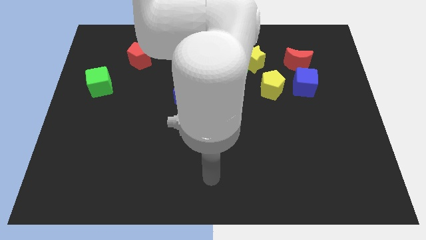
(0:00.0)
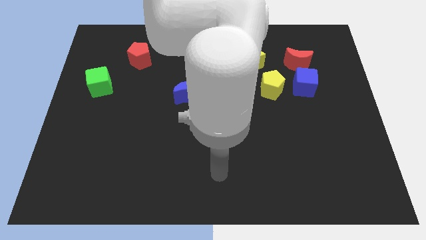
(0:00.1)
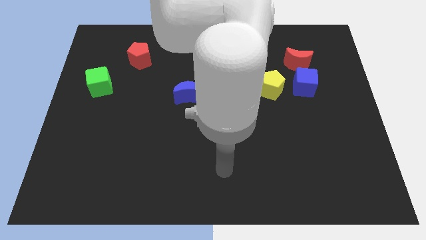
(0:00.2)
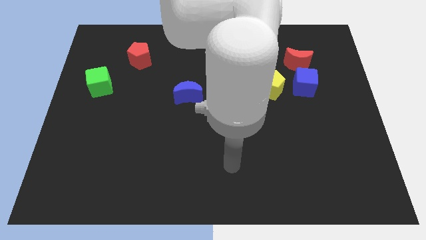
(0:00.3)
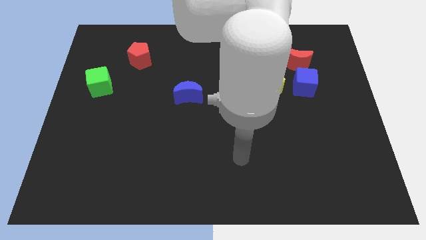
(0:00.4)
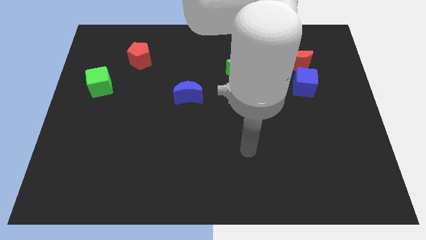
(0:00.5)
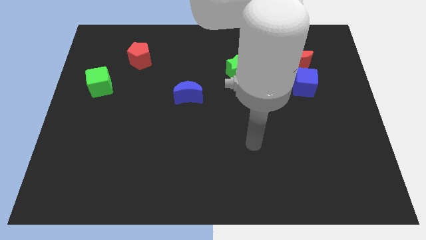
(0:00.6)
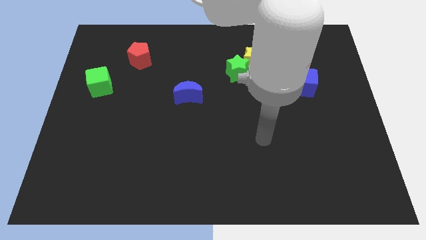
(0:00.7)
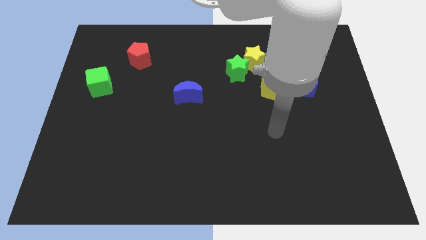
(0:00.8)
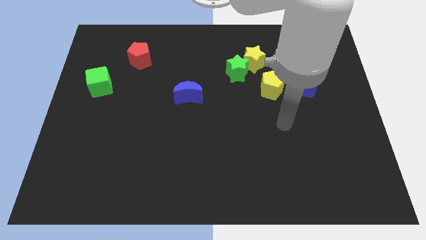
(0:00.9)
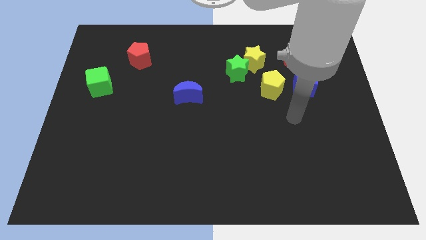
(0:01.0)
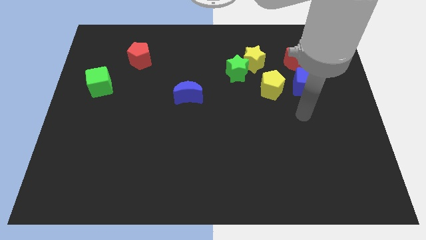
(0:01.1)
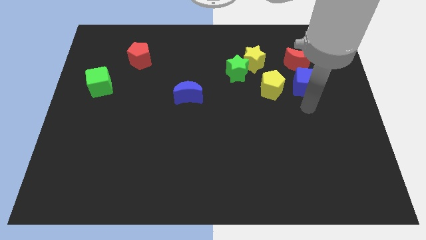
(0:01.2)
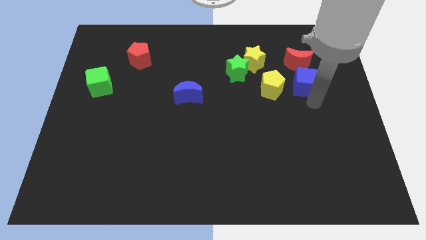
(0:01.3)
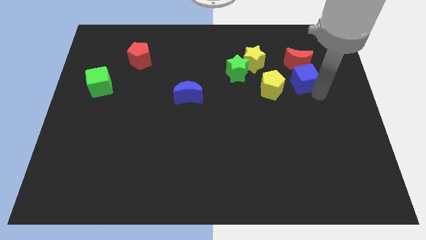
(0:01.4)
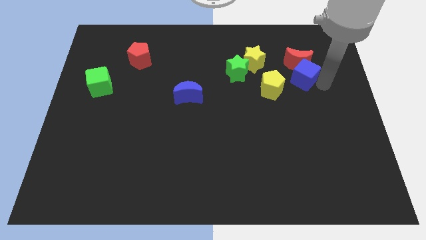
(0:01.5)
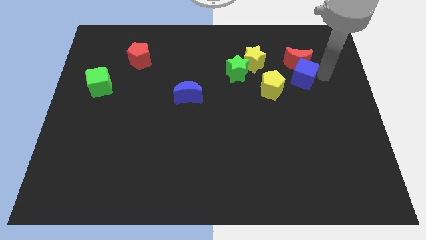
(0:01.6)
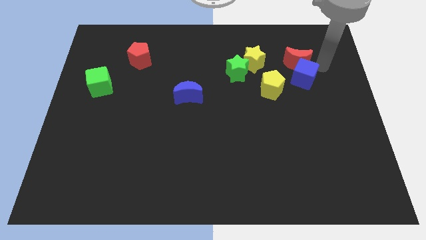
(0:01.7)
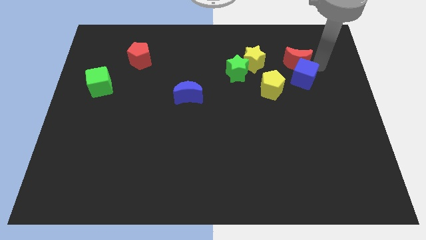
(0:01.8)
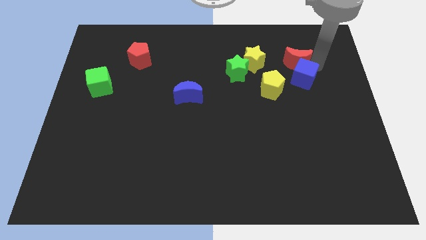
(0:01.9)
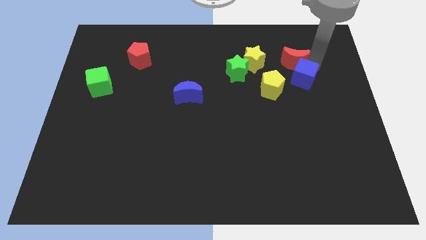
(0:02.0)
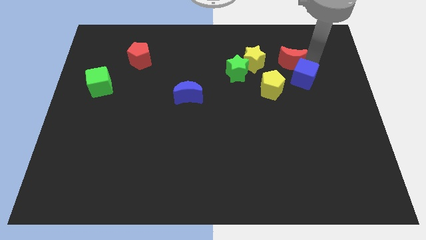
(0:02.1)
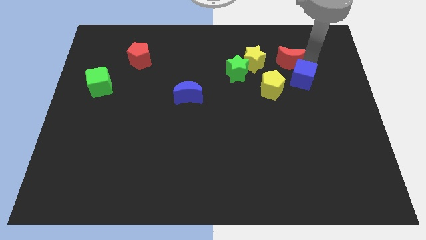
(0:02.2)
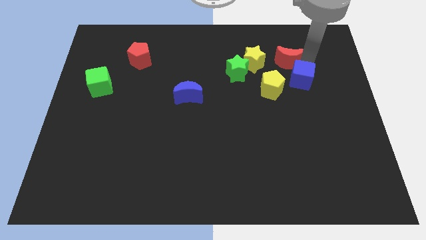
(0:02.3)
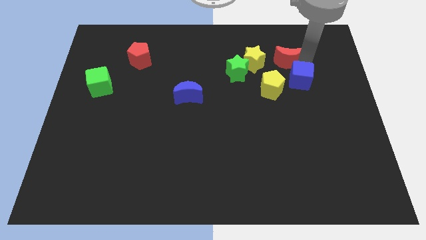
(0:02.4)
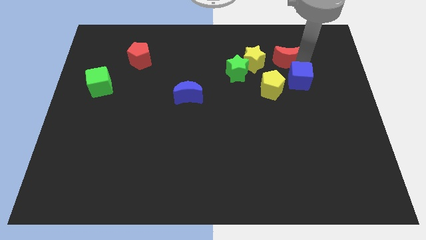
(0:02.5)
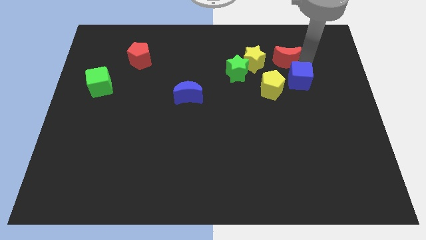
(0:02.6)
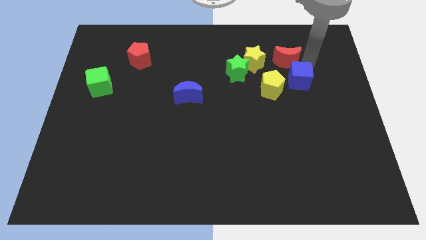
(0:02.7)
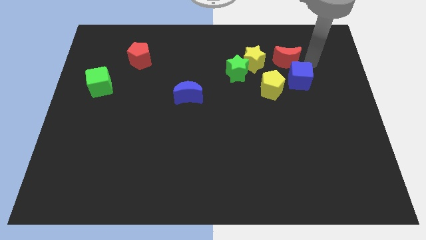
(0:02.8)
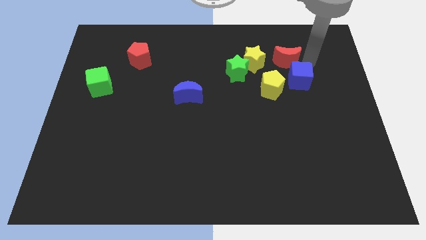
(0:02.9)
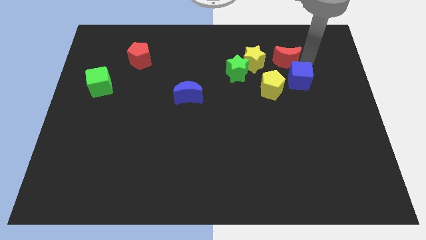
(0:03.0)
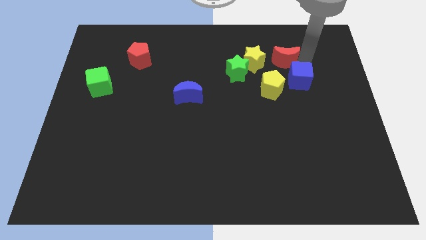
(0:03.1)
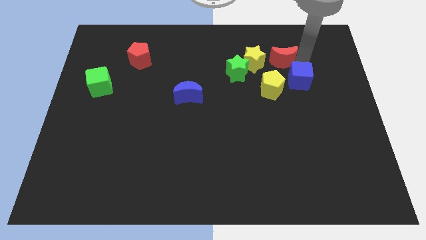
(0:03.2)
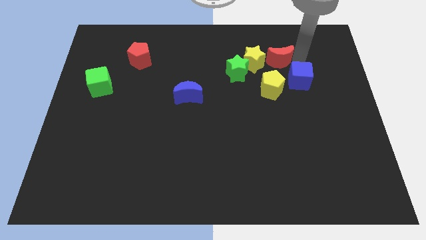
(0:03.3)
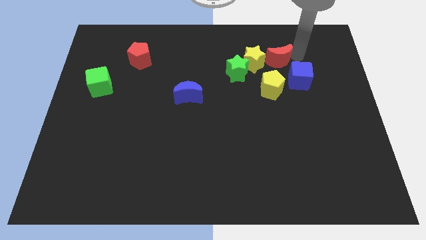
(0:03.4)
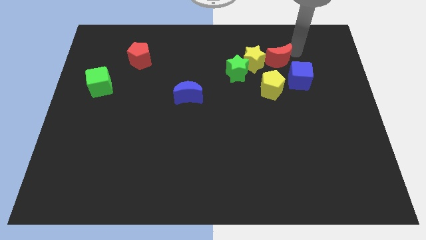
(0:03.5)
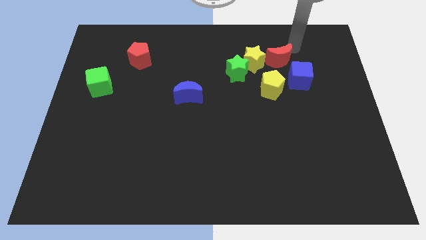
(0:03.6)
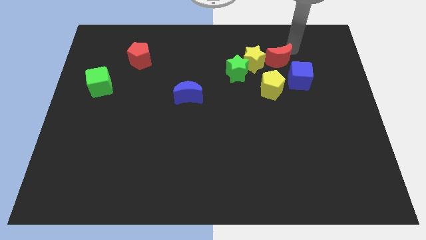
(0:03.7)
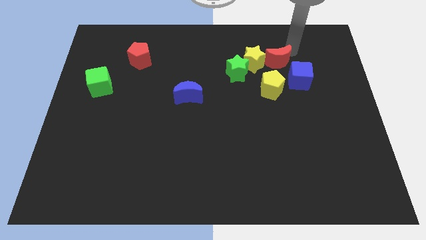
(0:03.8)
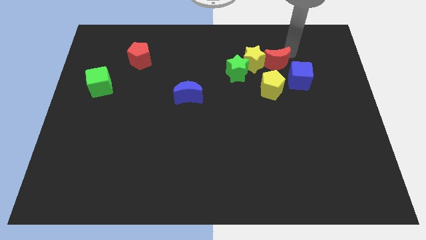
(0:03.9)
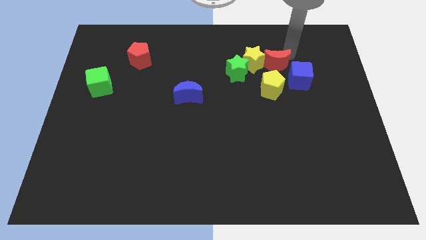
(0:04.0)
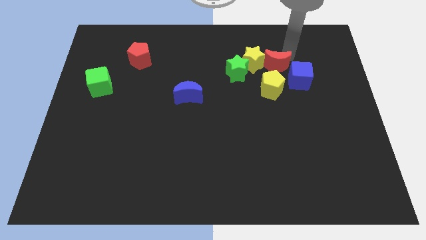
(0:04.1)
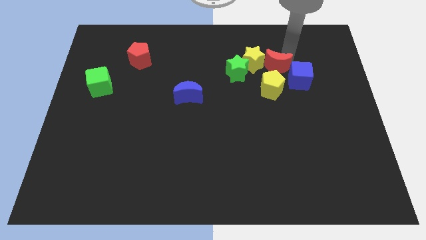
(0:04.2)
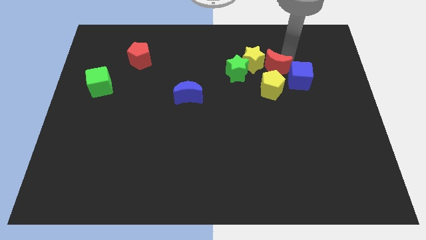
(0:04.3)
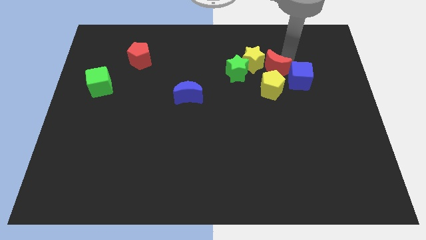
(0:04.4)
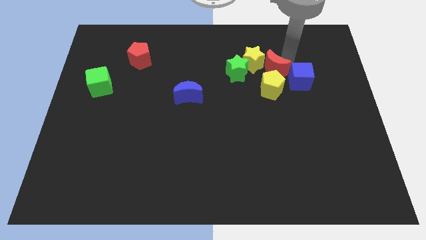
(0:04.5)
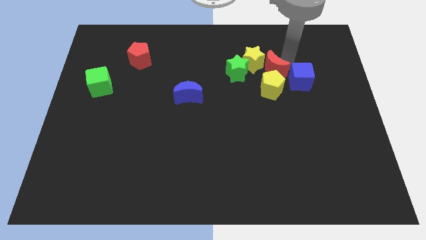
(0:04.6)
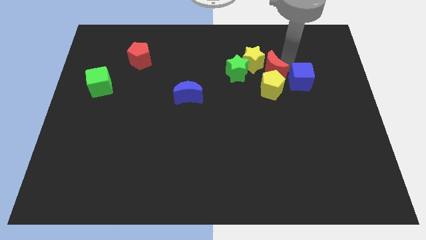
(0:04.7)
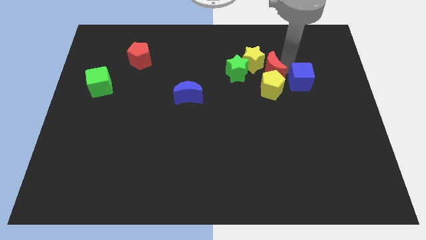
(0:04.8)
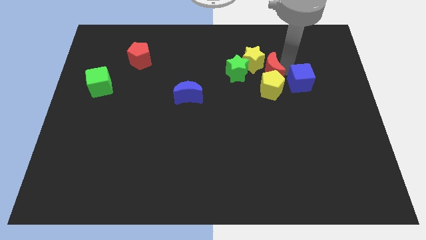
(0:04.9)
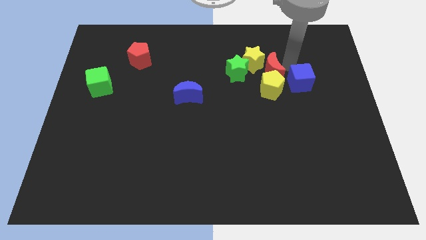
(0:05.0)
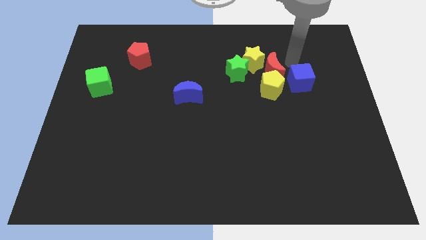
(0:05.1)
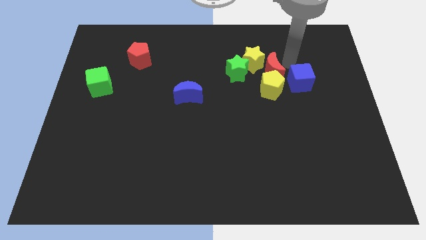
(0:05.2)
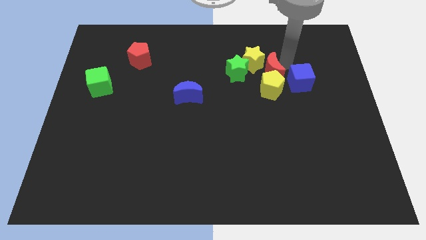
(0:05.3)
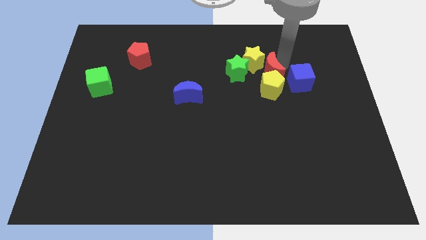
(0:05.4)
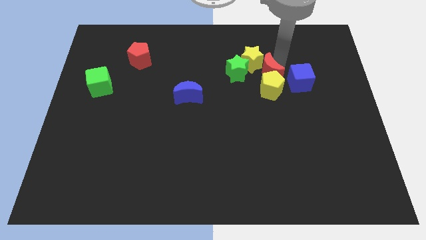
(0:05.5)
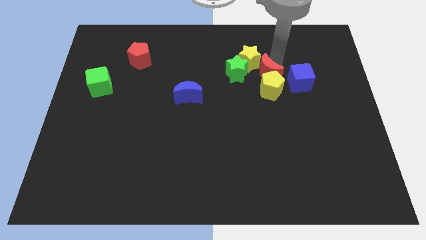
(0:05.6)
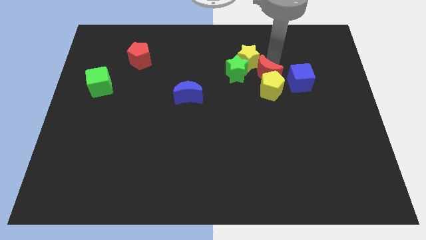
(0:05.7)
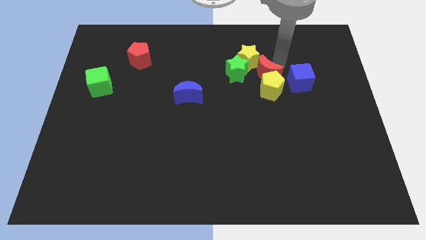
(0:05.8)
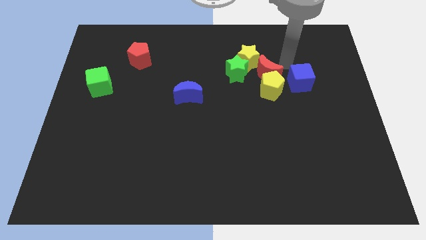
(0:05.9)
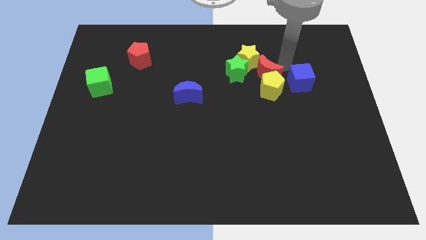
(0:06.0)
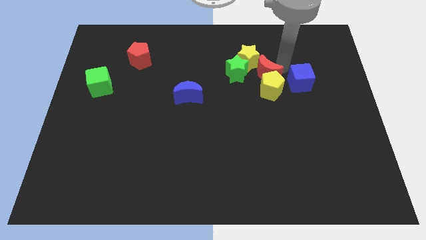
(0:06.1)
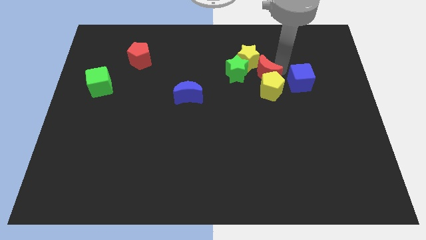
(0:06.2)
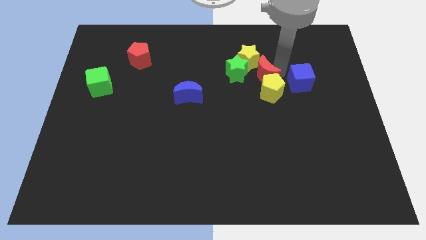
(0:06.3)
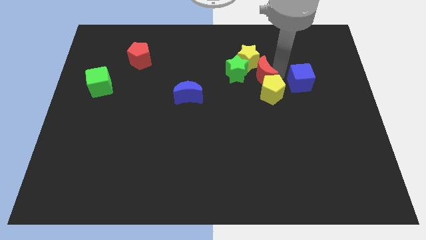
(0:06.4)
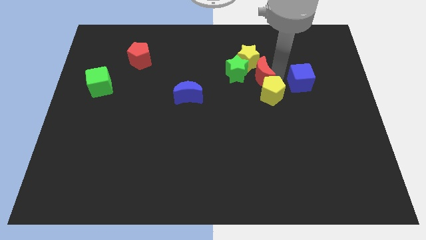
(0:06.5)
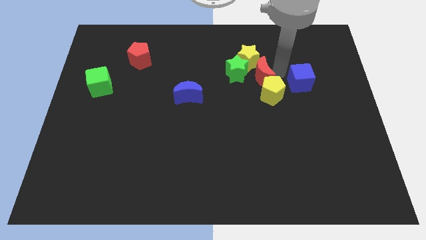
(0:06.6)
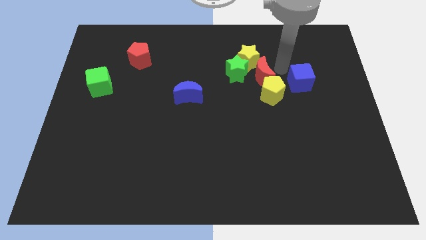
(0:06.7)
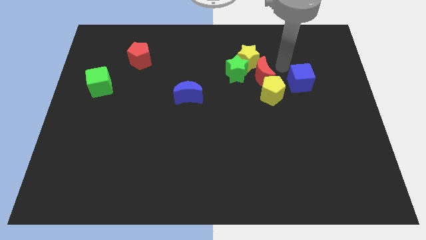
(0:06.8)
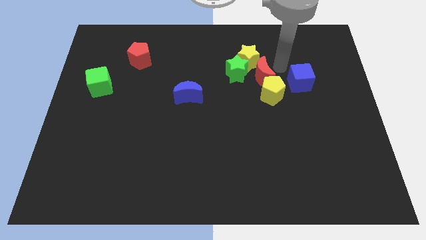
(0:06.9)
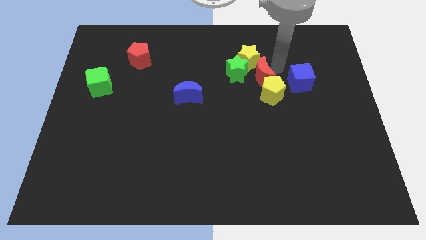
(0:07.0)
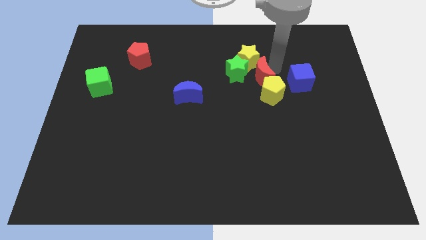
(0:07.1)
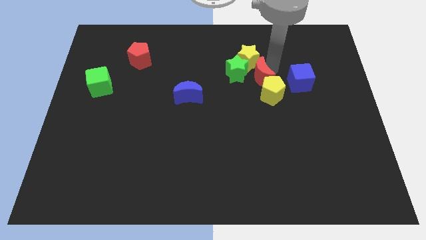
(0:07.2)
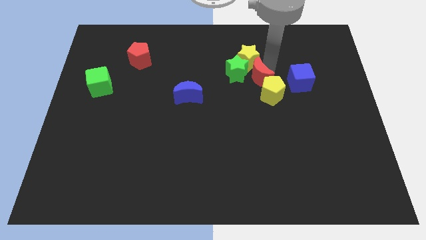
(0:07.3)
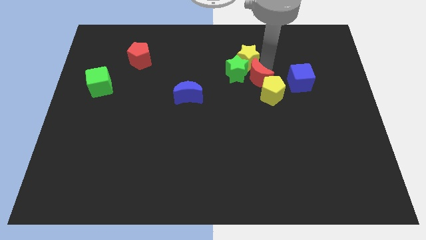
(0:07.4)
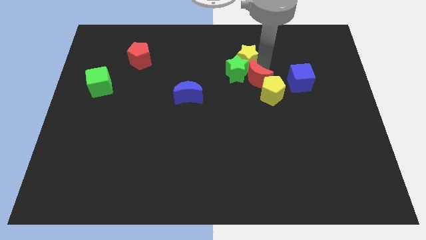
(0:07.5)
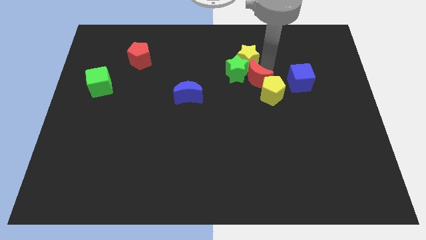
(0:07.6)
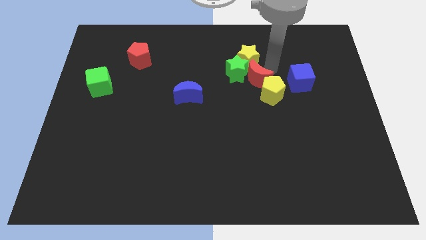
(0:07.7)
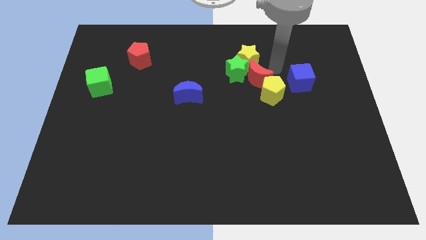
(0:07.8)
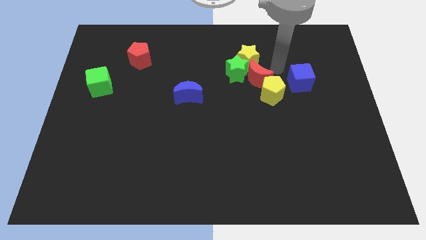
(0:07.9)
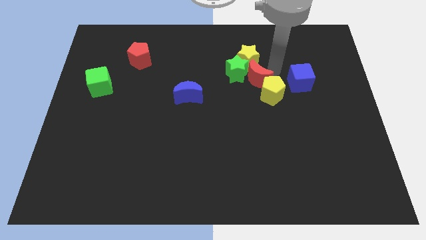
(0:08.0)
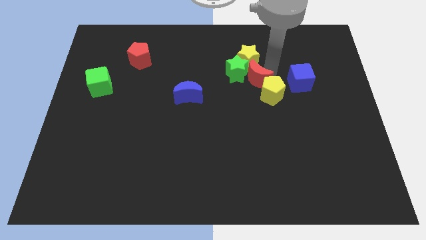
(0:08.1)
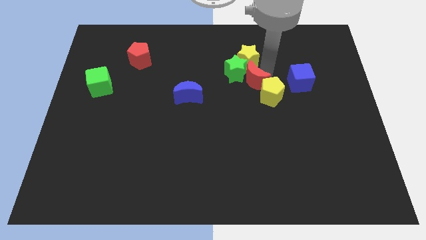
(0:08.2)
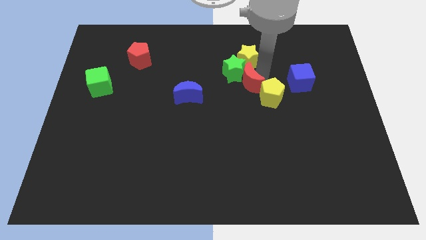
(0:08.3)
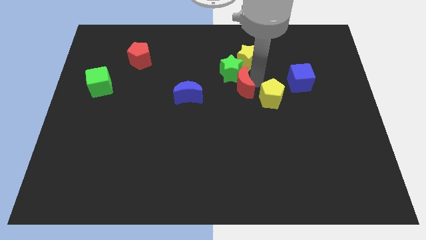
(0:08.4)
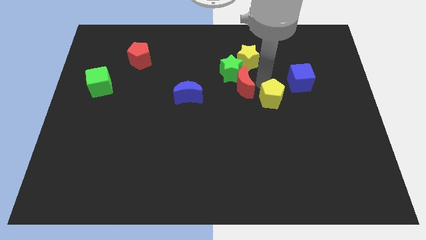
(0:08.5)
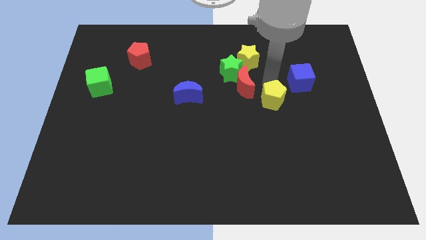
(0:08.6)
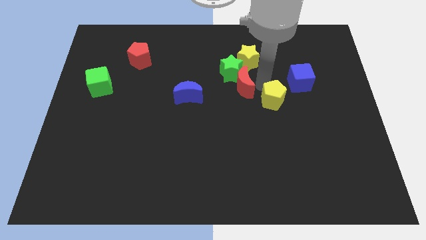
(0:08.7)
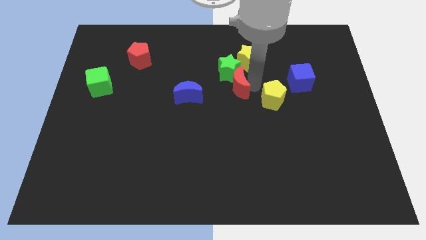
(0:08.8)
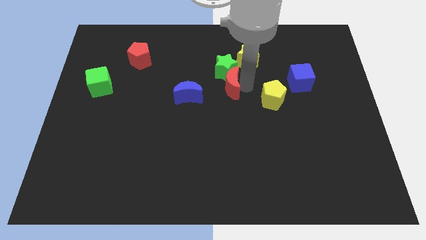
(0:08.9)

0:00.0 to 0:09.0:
slide the red moon diagonally down and to the left of the green star
